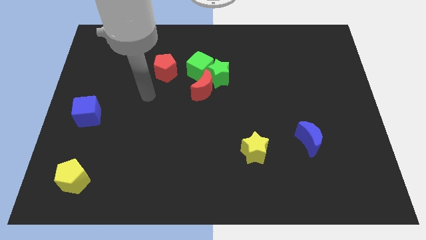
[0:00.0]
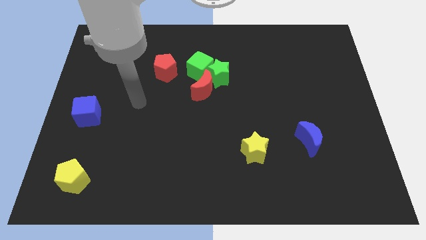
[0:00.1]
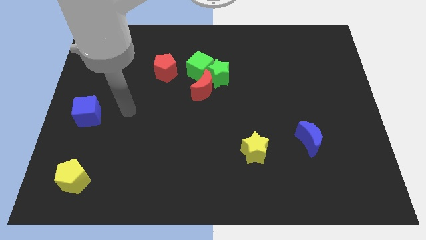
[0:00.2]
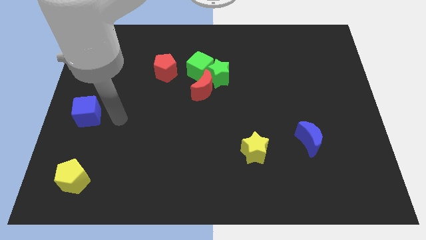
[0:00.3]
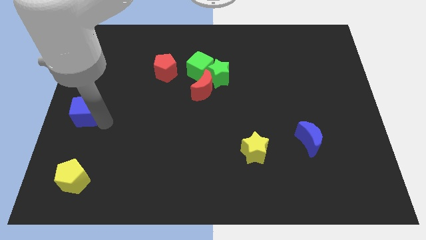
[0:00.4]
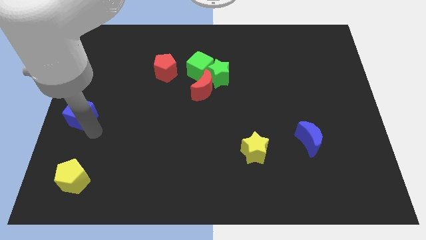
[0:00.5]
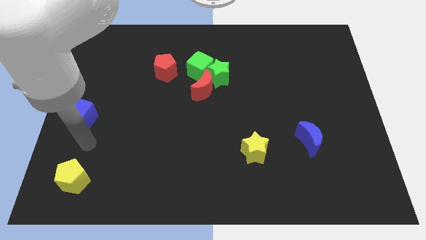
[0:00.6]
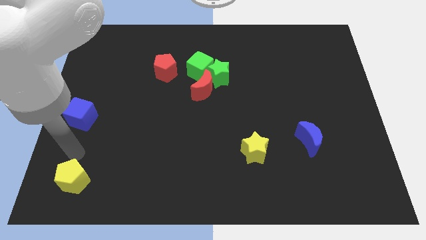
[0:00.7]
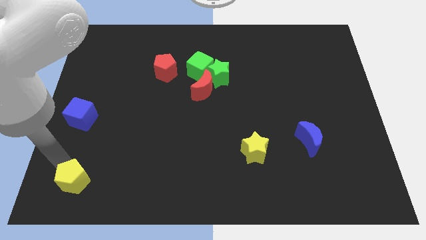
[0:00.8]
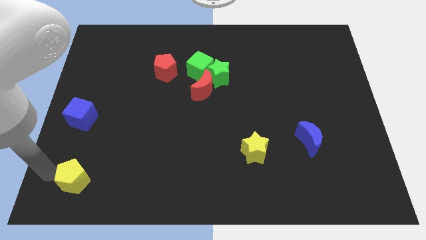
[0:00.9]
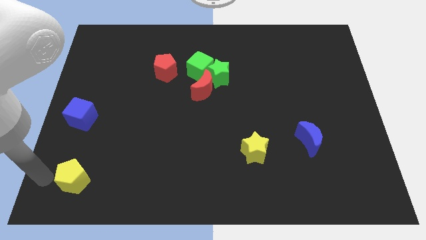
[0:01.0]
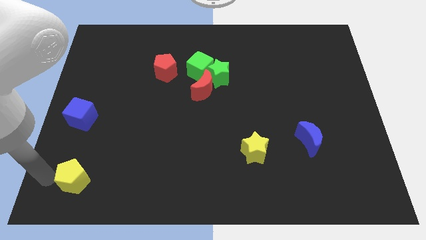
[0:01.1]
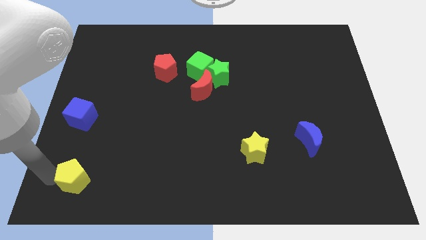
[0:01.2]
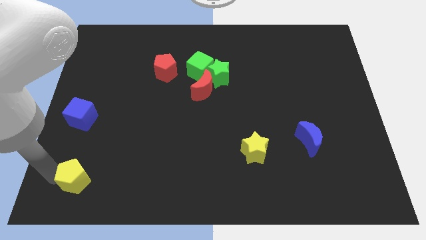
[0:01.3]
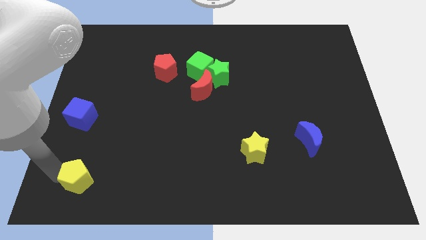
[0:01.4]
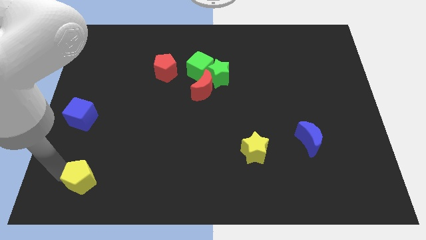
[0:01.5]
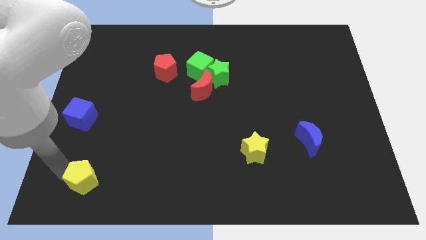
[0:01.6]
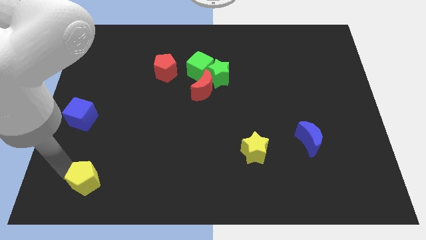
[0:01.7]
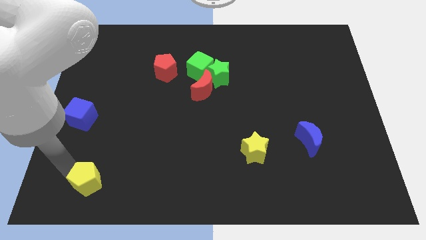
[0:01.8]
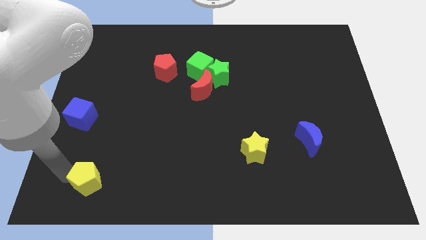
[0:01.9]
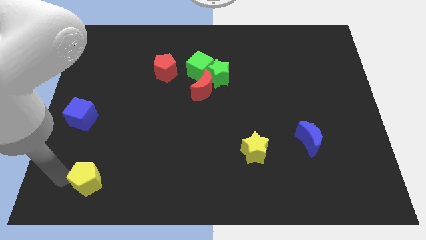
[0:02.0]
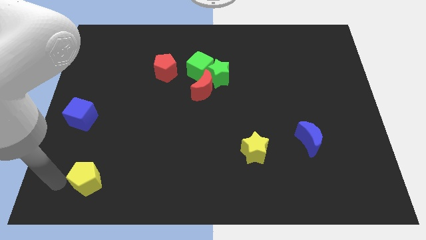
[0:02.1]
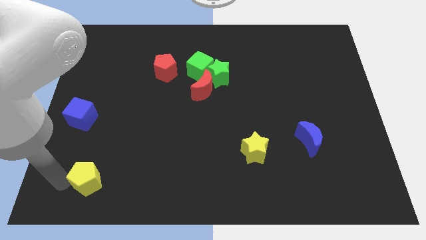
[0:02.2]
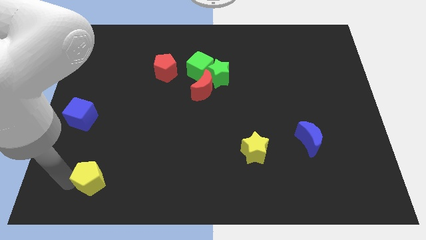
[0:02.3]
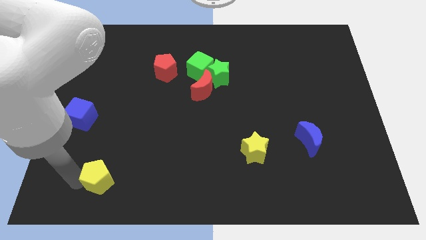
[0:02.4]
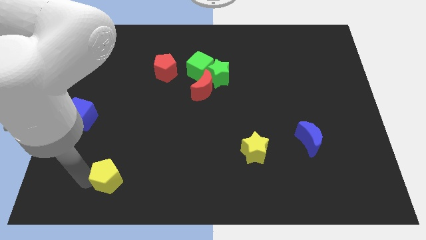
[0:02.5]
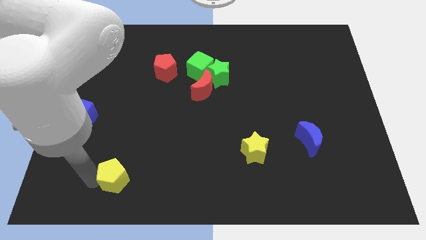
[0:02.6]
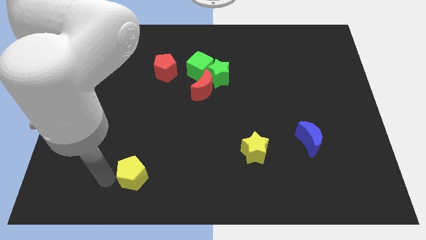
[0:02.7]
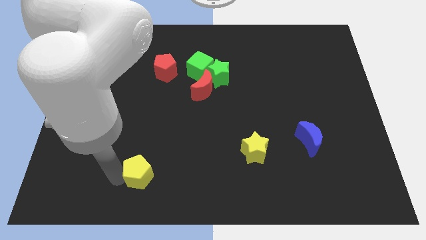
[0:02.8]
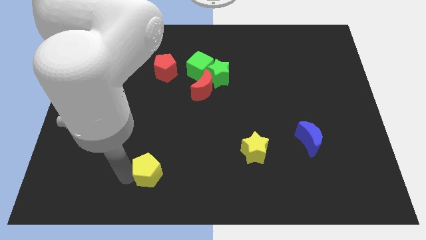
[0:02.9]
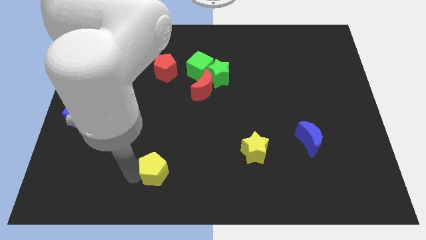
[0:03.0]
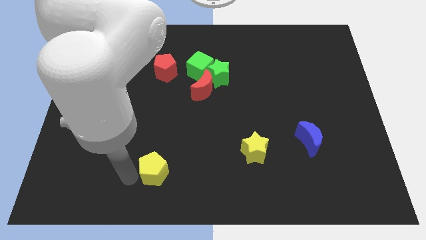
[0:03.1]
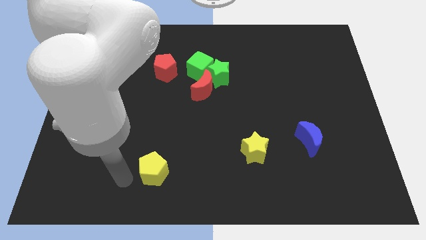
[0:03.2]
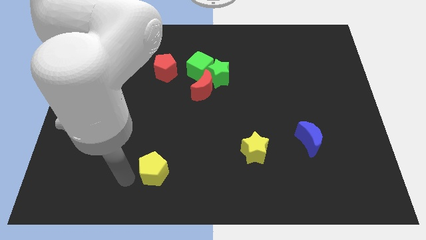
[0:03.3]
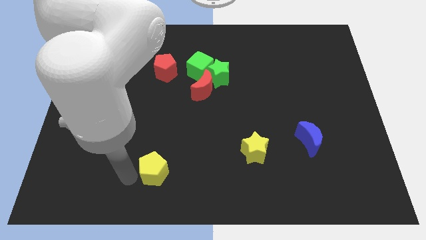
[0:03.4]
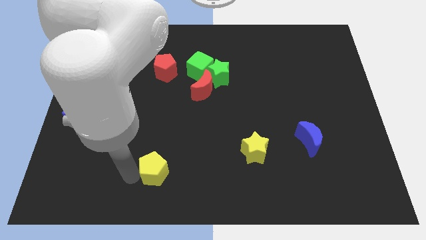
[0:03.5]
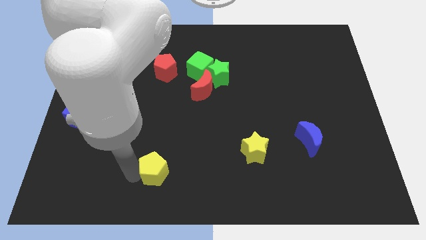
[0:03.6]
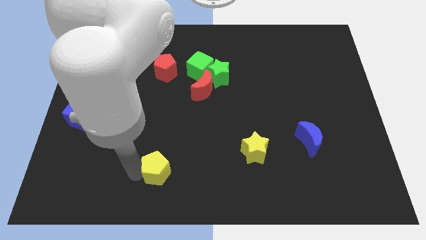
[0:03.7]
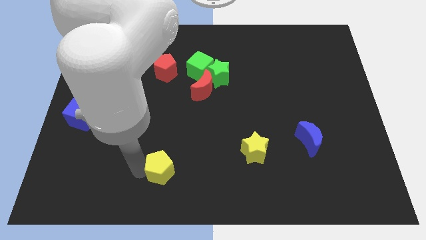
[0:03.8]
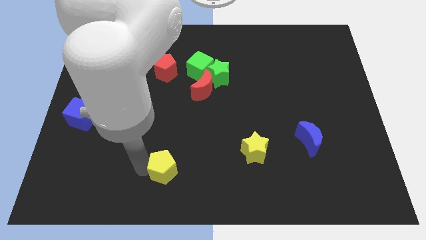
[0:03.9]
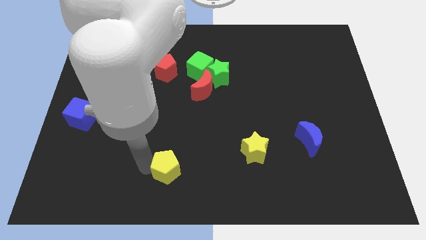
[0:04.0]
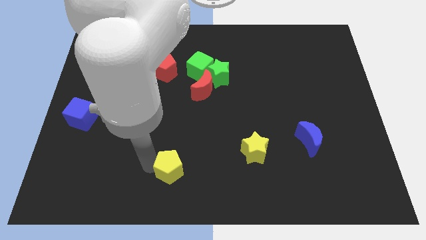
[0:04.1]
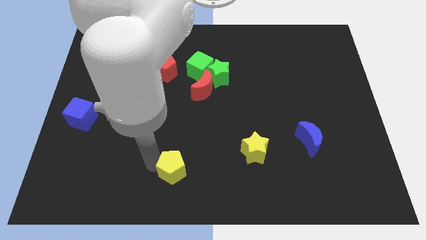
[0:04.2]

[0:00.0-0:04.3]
push the yellow pentagon to the right

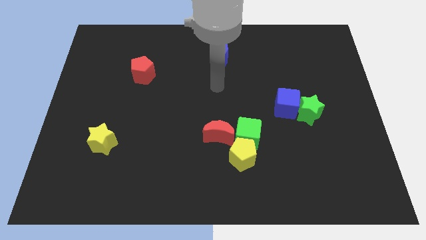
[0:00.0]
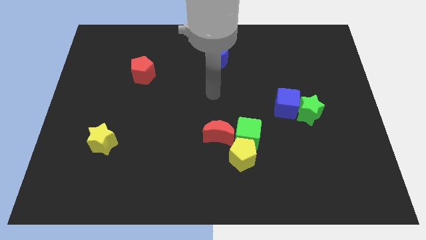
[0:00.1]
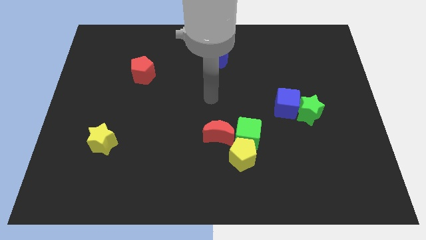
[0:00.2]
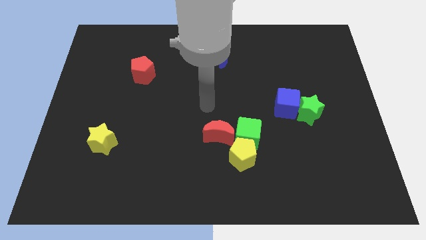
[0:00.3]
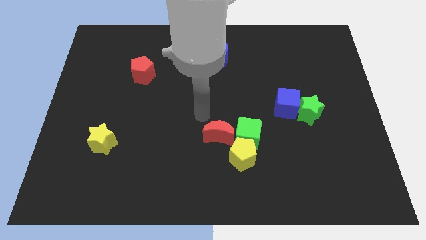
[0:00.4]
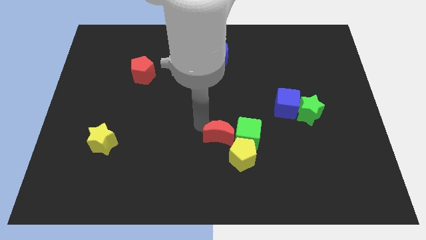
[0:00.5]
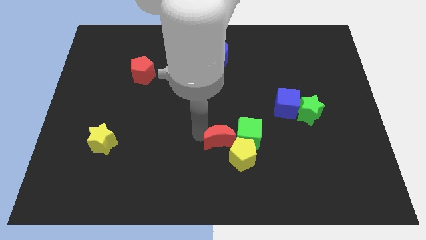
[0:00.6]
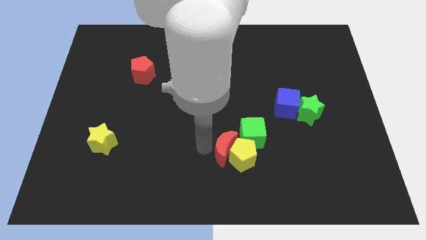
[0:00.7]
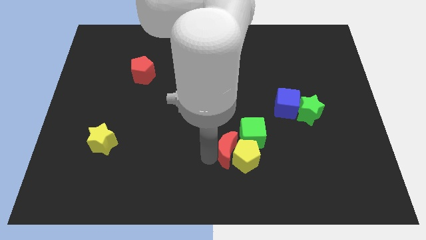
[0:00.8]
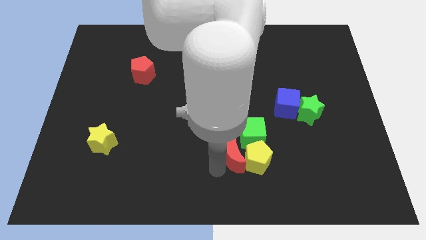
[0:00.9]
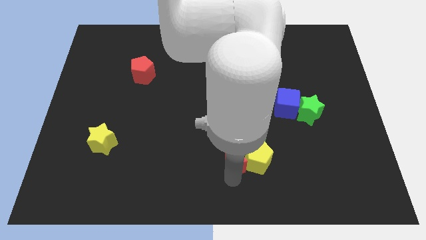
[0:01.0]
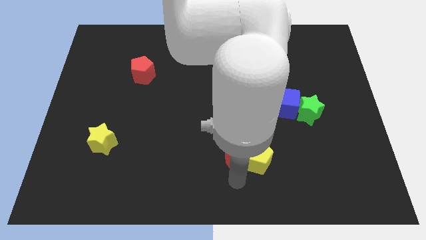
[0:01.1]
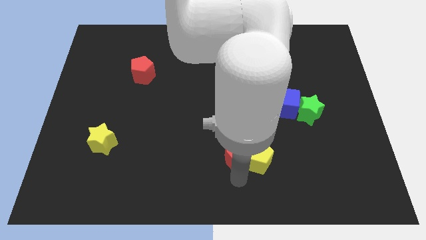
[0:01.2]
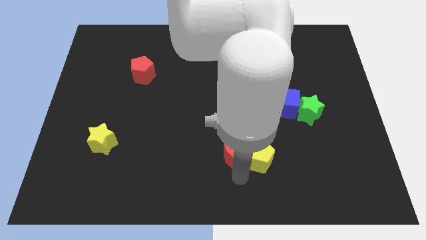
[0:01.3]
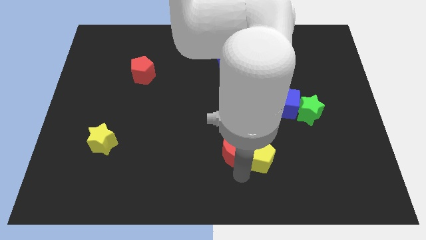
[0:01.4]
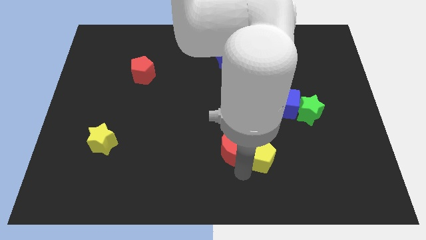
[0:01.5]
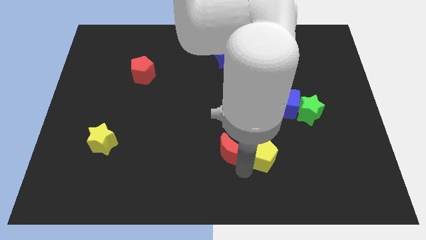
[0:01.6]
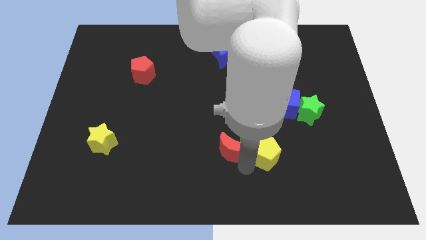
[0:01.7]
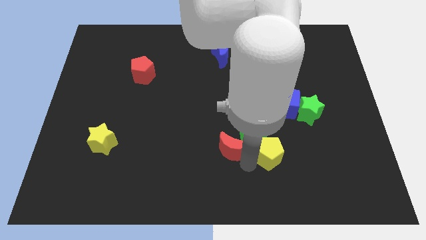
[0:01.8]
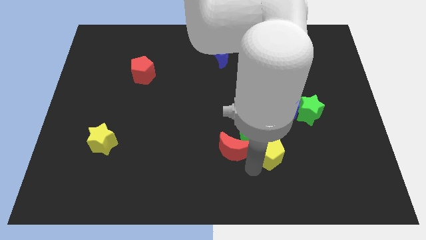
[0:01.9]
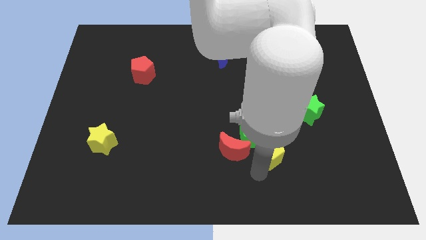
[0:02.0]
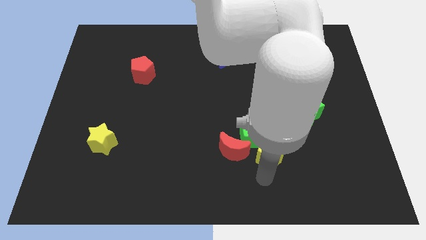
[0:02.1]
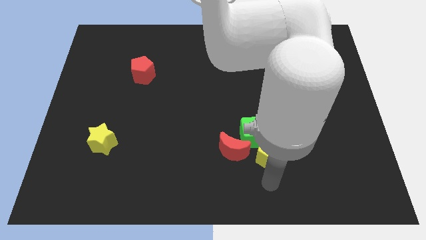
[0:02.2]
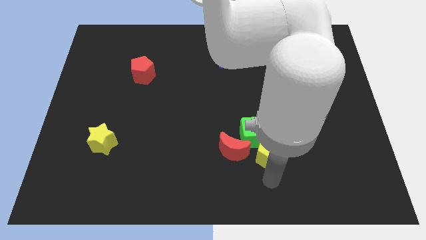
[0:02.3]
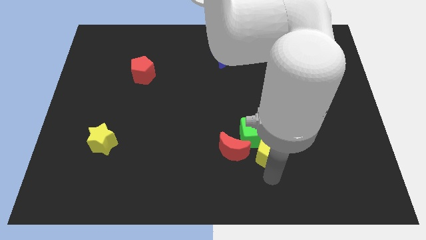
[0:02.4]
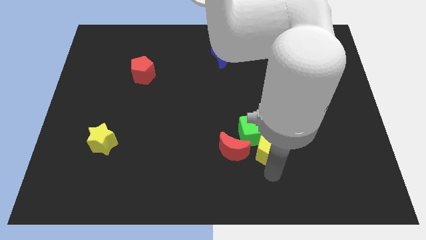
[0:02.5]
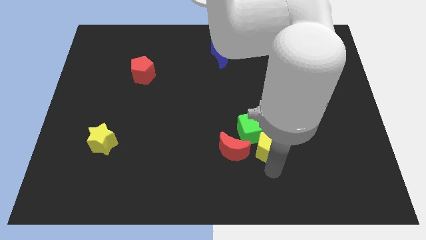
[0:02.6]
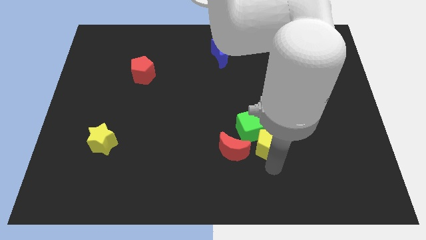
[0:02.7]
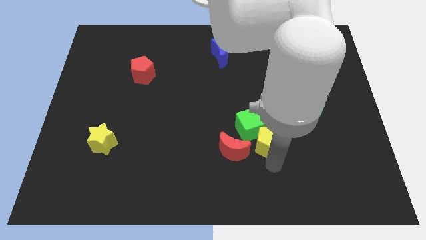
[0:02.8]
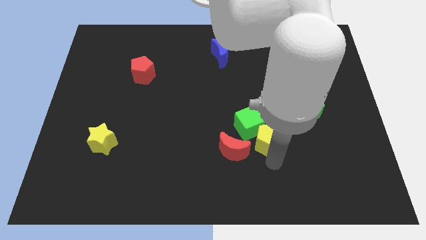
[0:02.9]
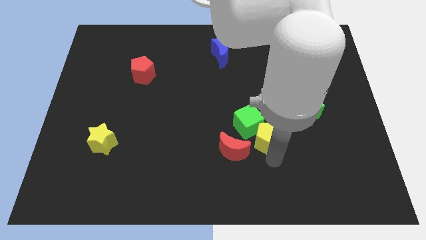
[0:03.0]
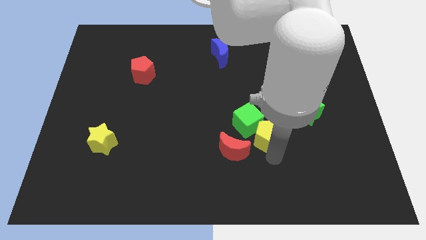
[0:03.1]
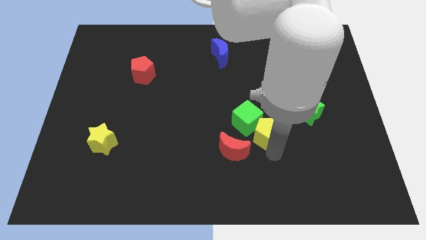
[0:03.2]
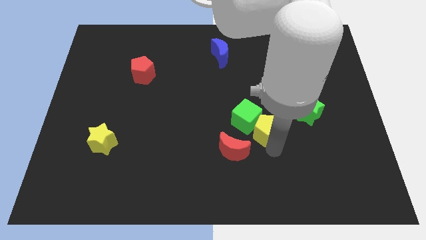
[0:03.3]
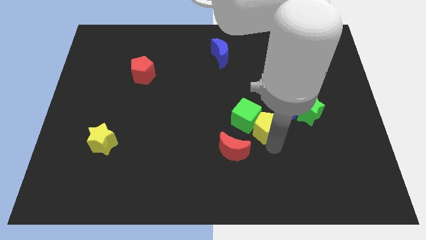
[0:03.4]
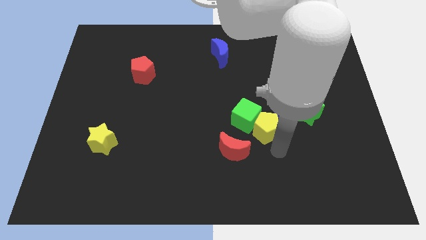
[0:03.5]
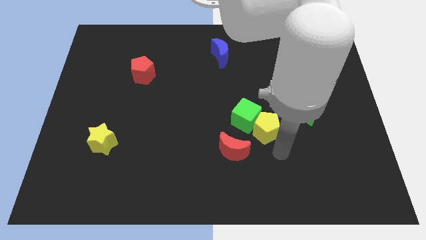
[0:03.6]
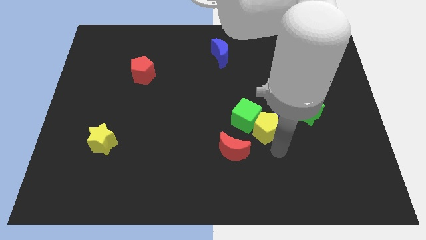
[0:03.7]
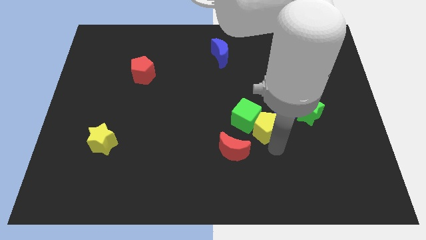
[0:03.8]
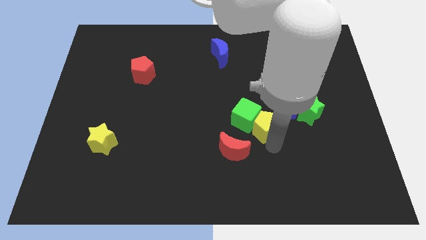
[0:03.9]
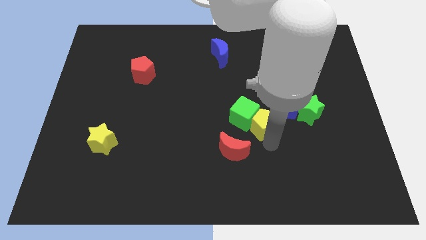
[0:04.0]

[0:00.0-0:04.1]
slightly slide the yellow pentagon upwards
